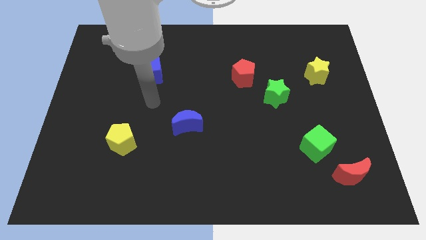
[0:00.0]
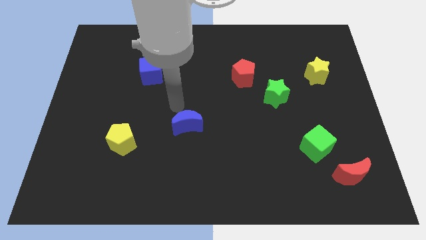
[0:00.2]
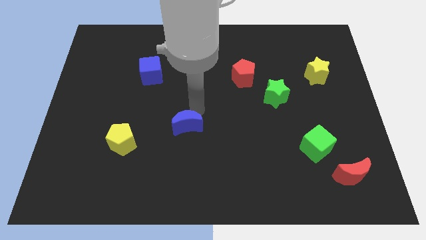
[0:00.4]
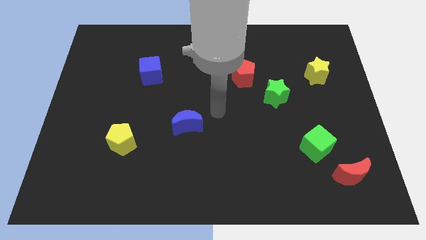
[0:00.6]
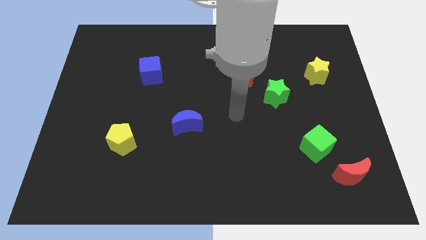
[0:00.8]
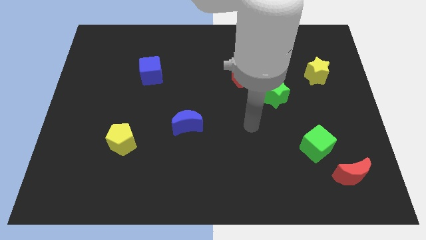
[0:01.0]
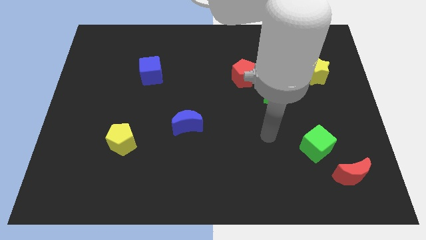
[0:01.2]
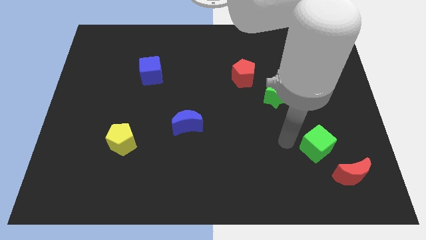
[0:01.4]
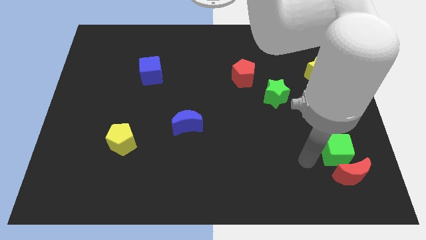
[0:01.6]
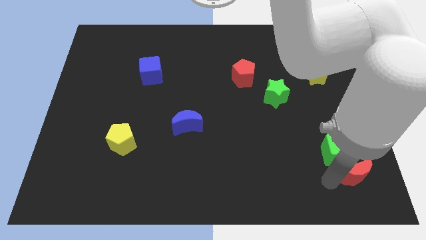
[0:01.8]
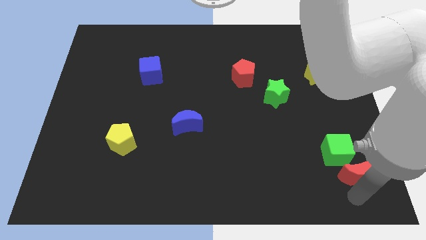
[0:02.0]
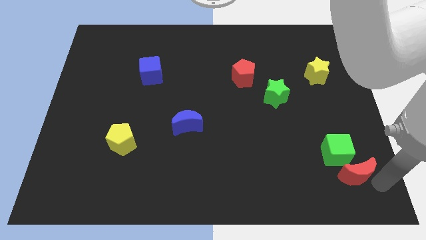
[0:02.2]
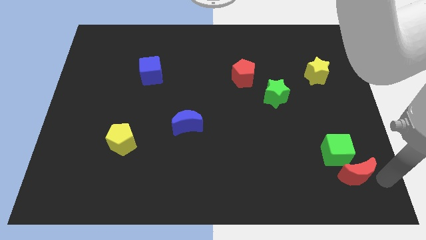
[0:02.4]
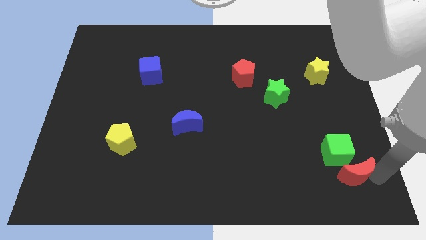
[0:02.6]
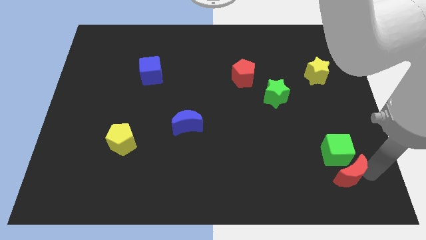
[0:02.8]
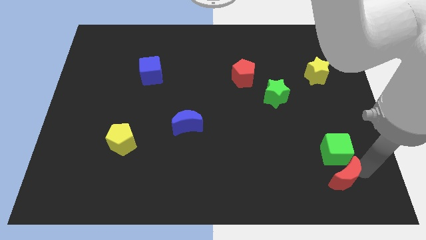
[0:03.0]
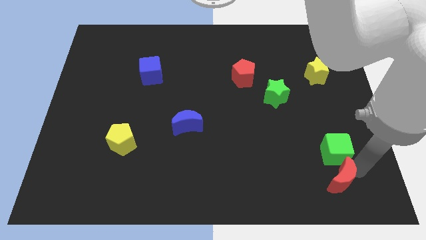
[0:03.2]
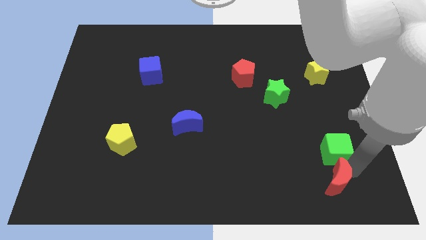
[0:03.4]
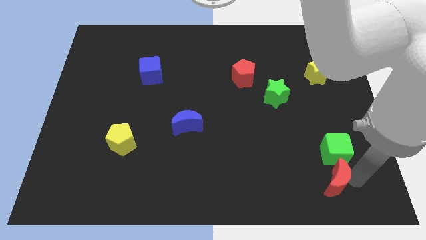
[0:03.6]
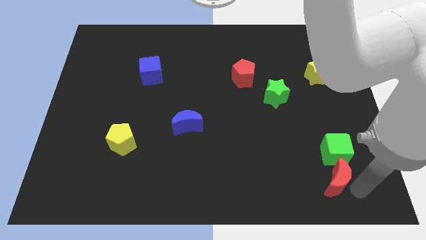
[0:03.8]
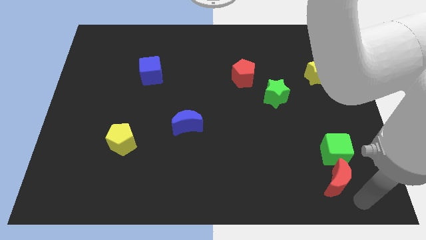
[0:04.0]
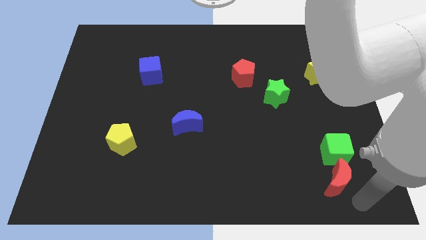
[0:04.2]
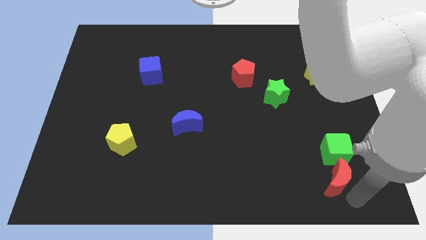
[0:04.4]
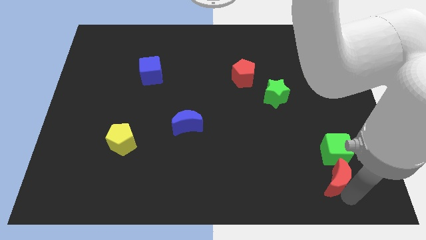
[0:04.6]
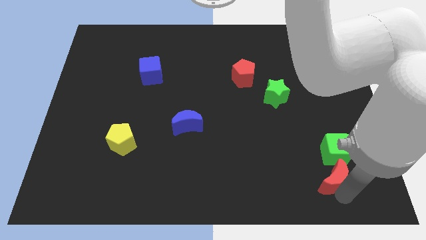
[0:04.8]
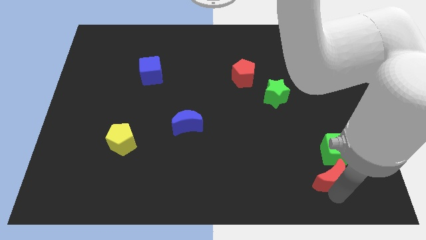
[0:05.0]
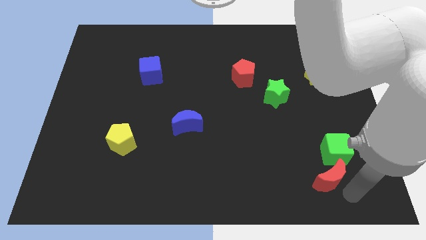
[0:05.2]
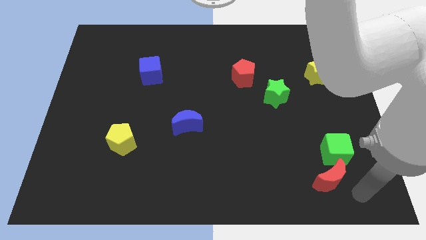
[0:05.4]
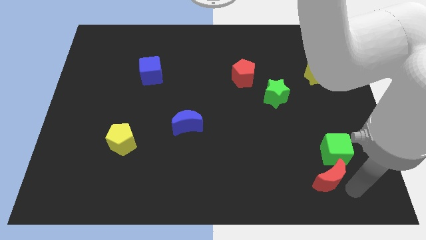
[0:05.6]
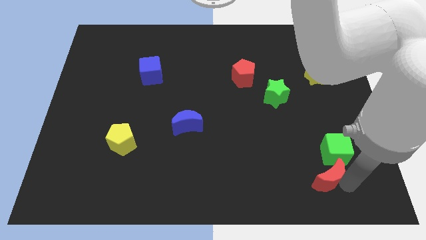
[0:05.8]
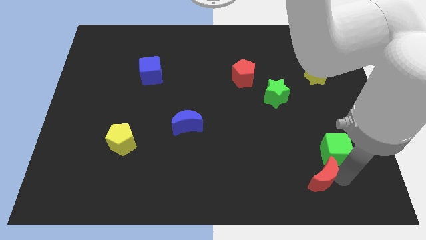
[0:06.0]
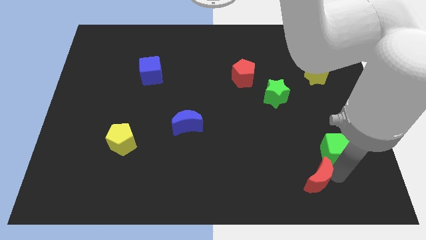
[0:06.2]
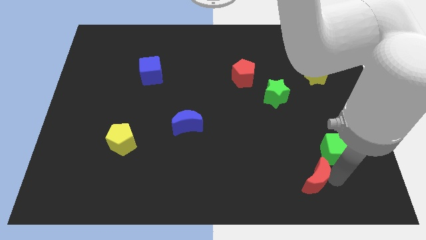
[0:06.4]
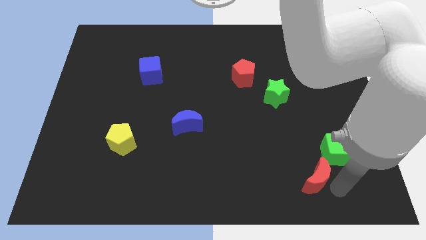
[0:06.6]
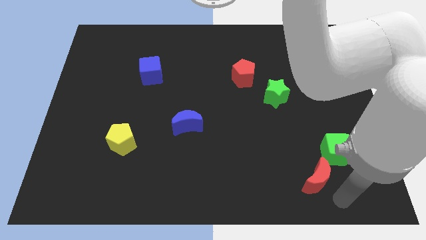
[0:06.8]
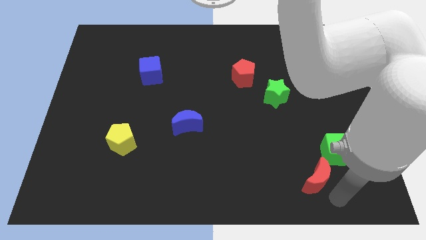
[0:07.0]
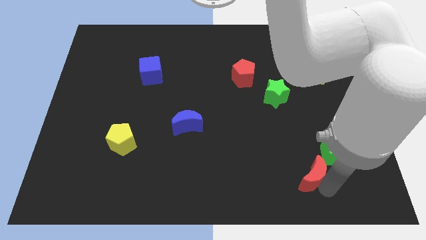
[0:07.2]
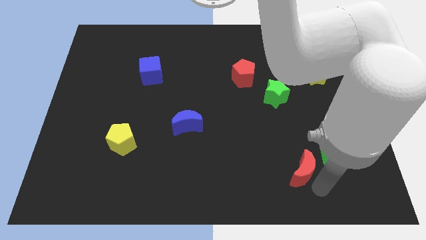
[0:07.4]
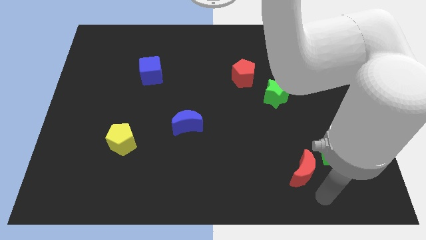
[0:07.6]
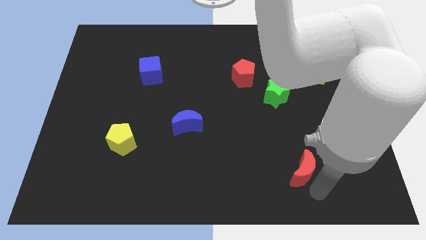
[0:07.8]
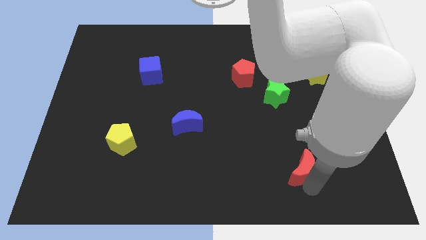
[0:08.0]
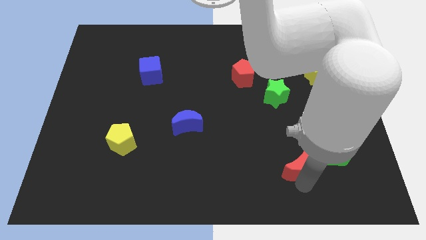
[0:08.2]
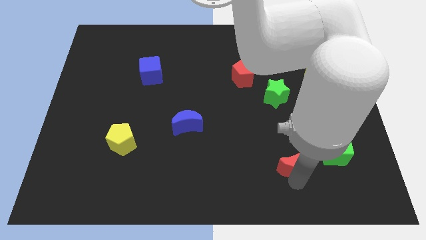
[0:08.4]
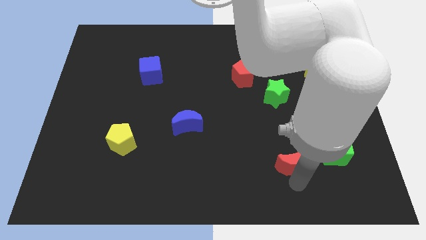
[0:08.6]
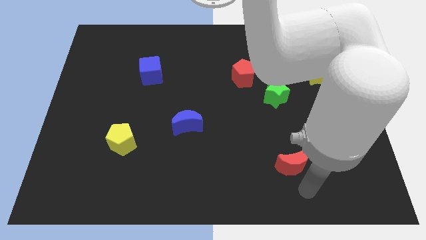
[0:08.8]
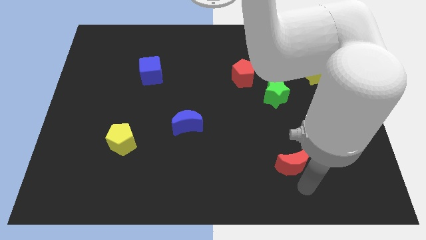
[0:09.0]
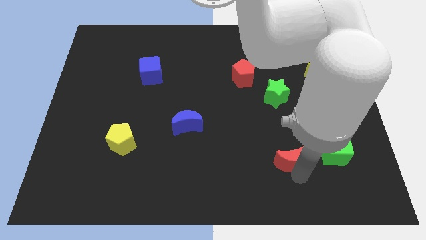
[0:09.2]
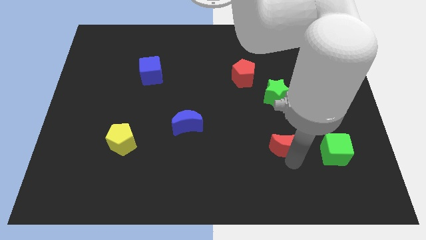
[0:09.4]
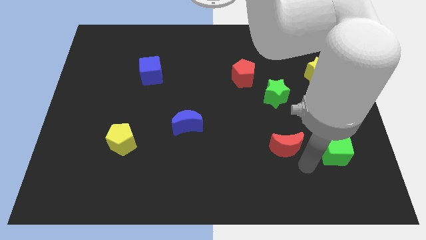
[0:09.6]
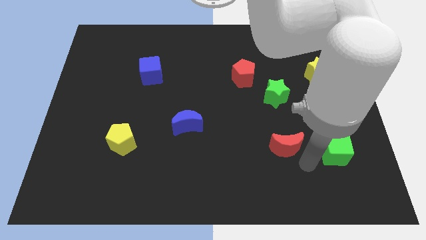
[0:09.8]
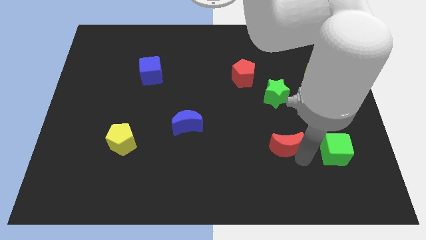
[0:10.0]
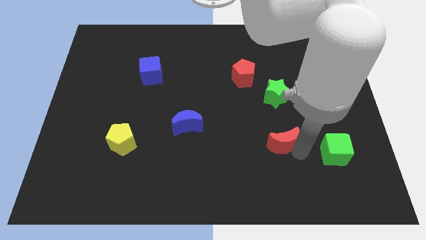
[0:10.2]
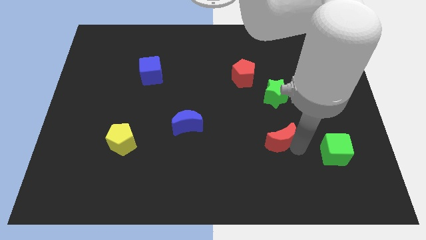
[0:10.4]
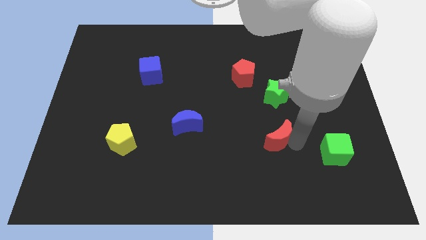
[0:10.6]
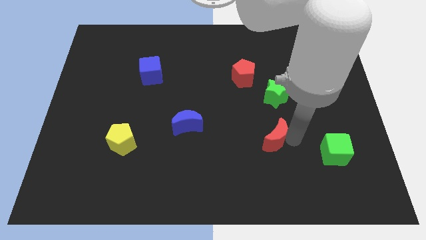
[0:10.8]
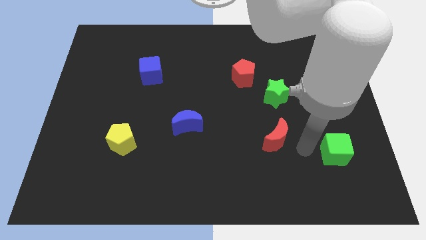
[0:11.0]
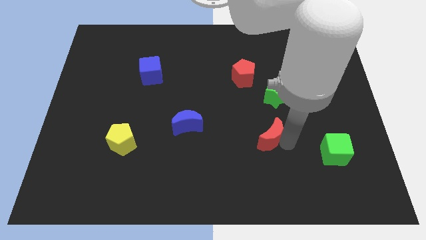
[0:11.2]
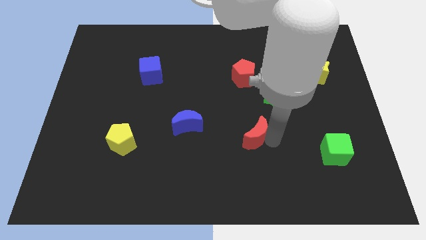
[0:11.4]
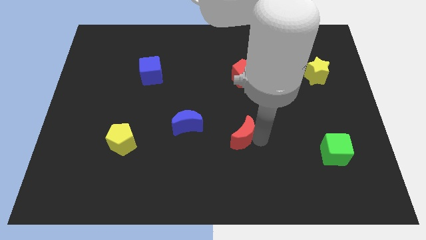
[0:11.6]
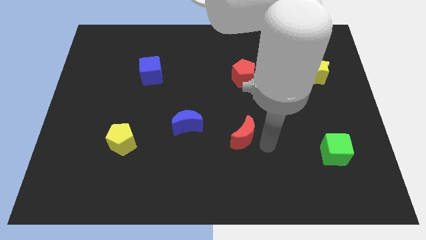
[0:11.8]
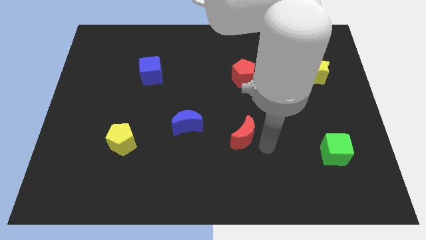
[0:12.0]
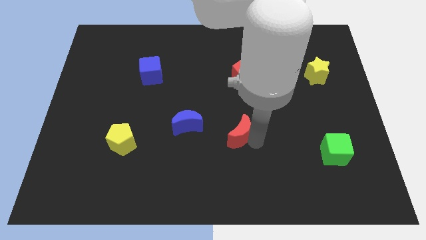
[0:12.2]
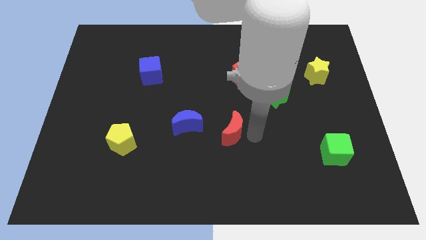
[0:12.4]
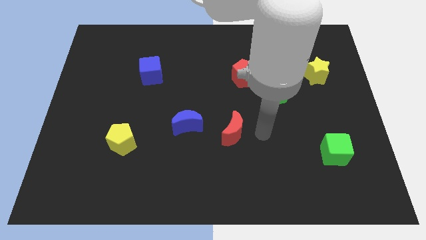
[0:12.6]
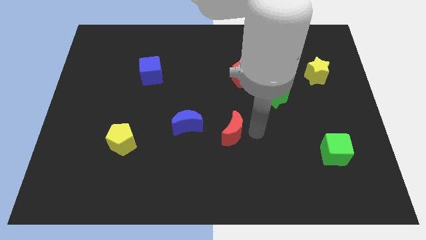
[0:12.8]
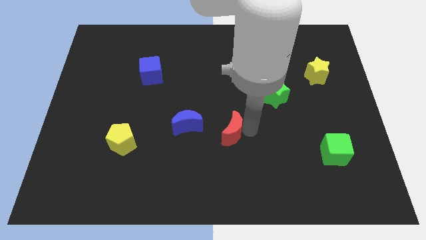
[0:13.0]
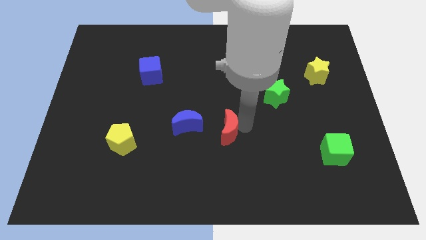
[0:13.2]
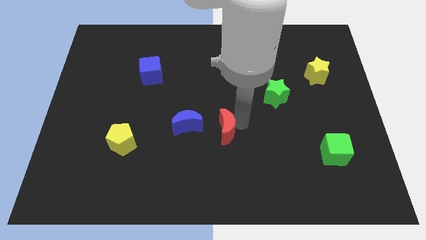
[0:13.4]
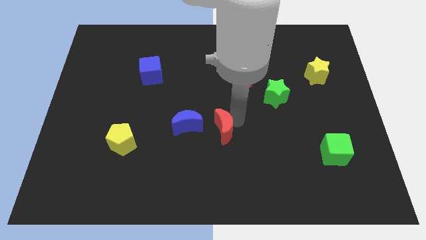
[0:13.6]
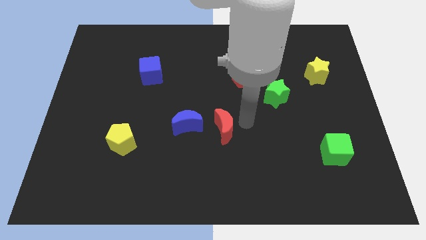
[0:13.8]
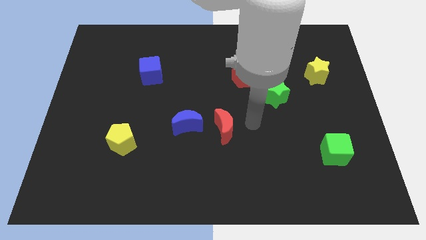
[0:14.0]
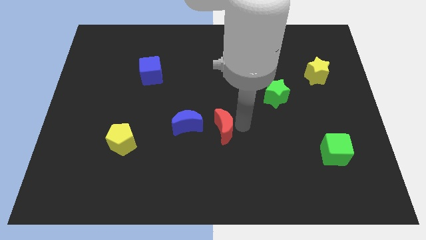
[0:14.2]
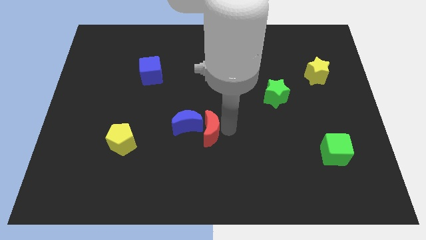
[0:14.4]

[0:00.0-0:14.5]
move the red moon next to the blue moon
